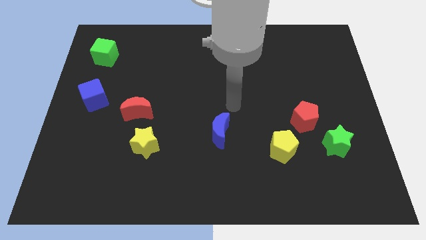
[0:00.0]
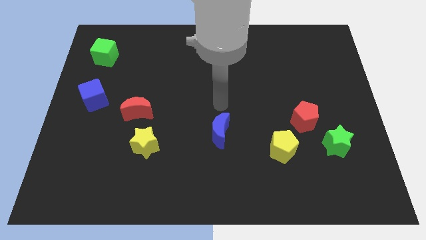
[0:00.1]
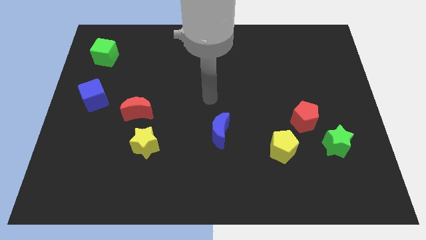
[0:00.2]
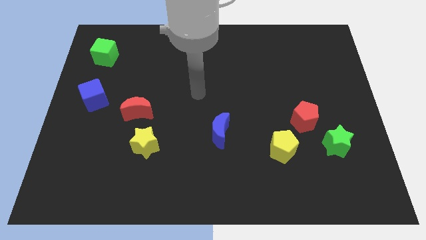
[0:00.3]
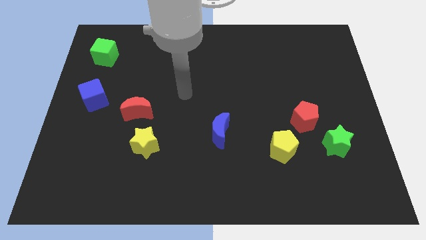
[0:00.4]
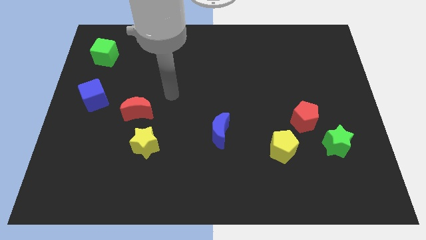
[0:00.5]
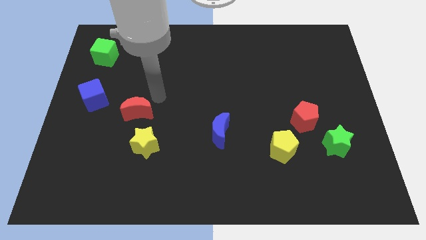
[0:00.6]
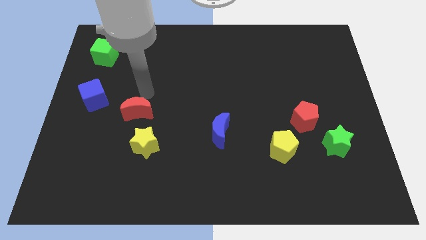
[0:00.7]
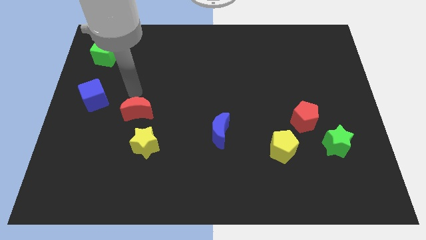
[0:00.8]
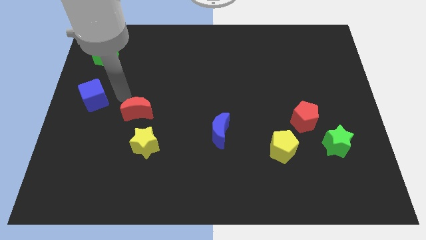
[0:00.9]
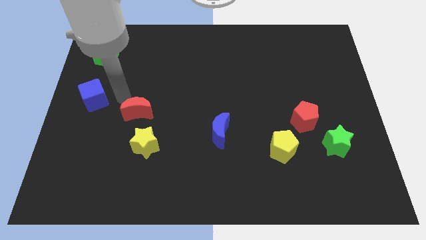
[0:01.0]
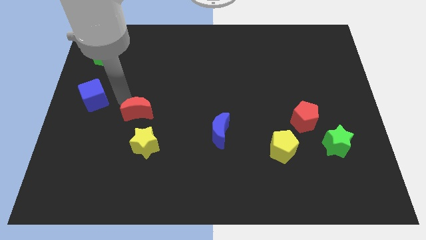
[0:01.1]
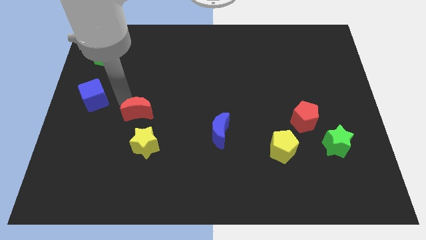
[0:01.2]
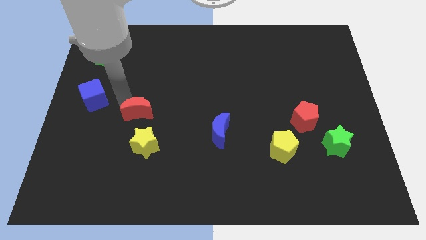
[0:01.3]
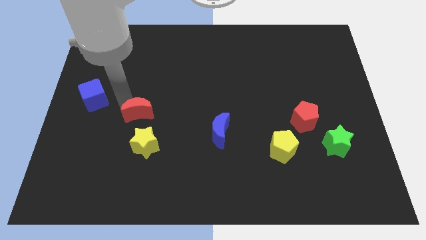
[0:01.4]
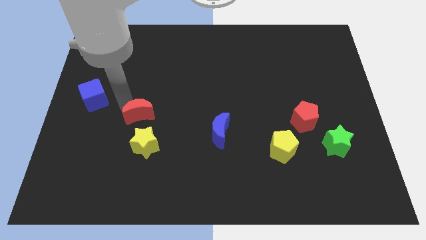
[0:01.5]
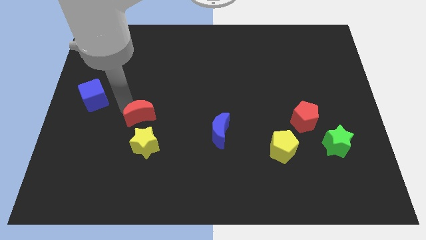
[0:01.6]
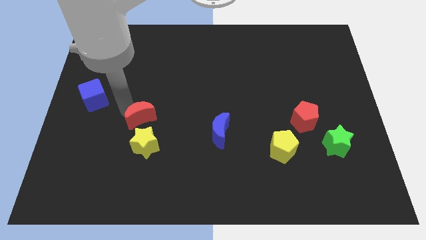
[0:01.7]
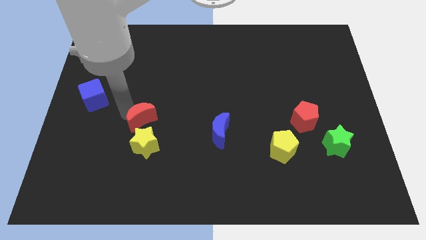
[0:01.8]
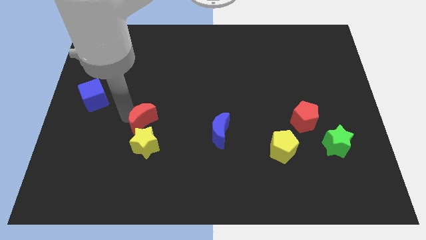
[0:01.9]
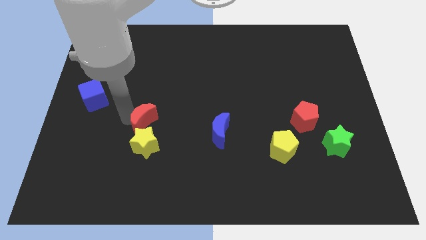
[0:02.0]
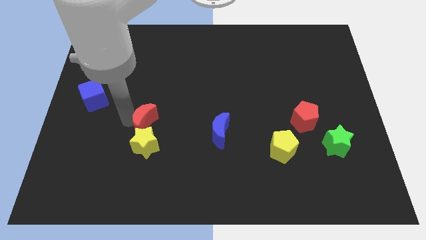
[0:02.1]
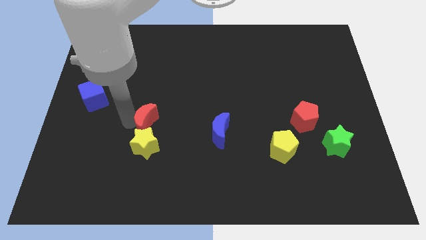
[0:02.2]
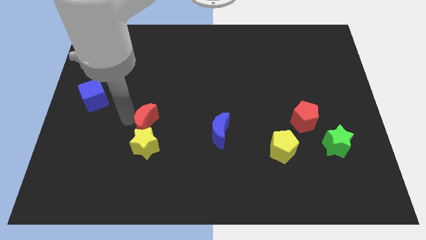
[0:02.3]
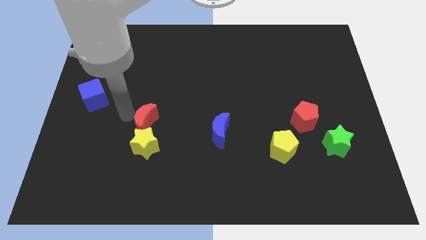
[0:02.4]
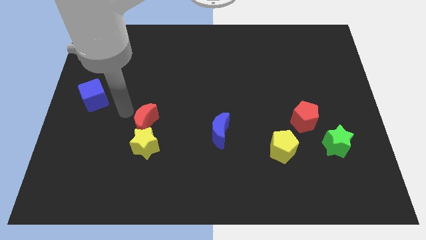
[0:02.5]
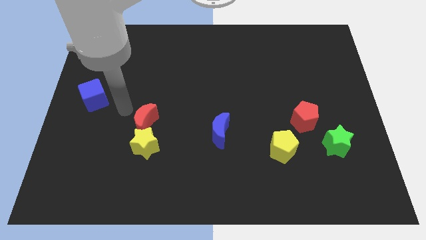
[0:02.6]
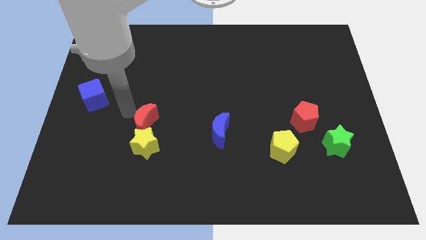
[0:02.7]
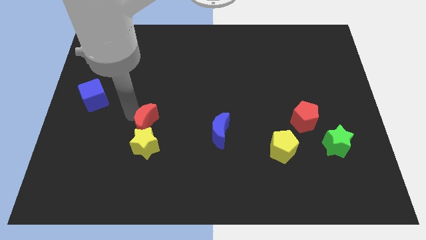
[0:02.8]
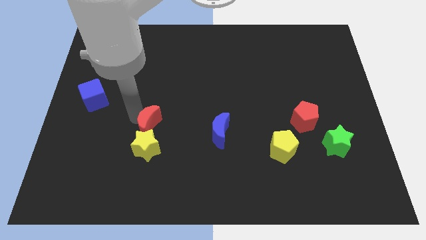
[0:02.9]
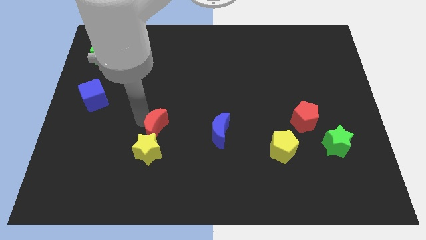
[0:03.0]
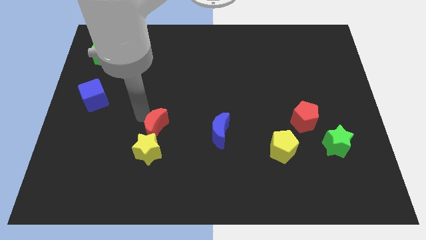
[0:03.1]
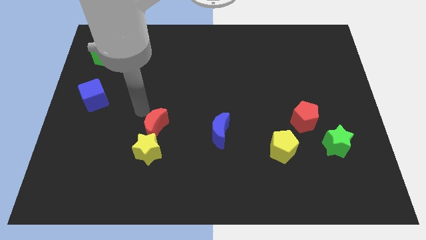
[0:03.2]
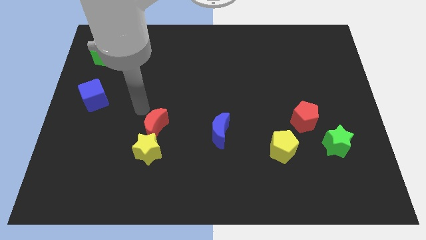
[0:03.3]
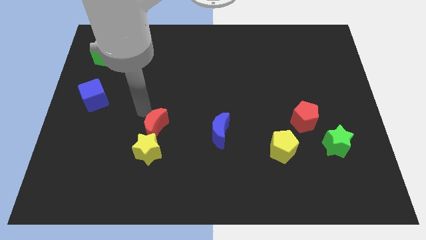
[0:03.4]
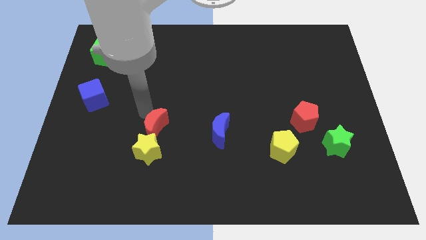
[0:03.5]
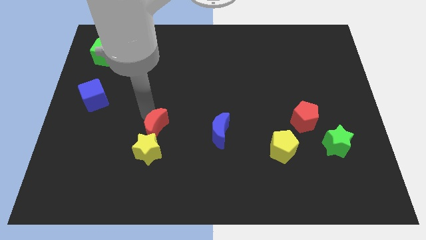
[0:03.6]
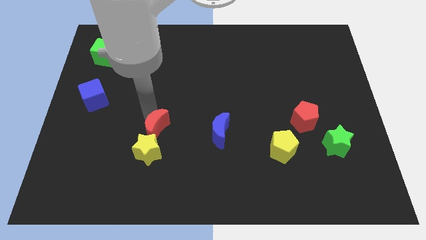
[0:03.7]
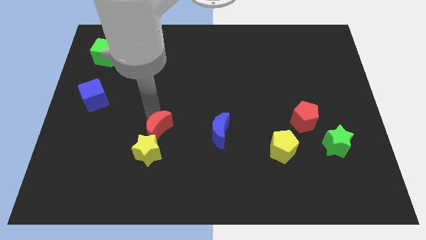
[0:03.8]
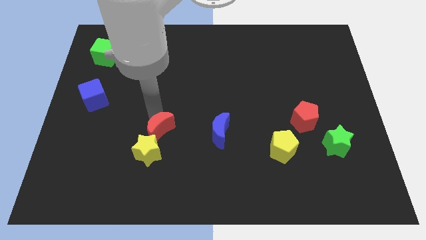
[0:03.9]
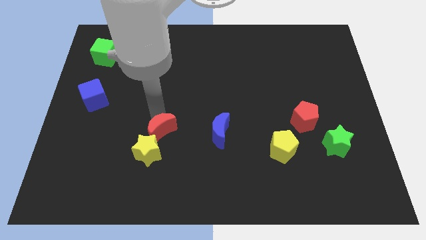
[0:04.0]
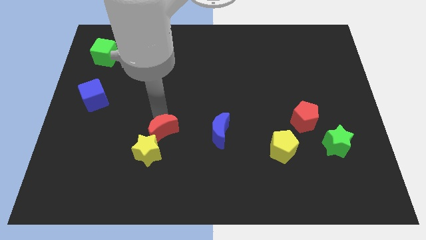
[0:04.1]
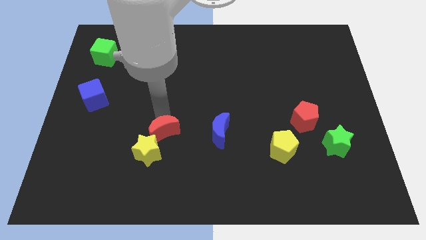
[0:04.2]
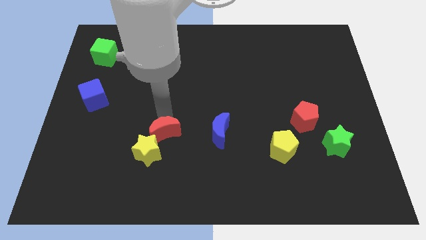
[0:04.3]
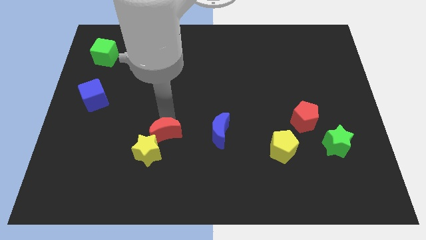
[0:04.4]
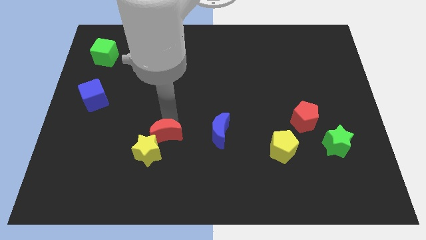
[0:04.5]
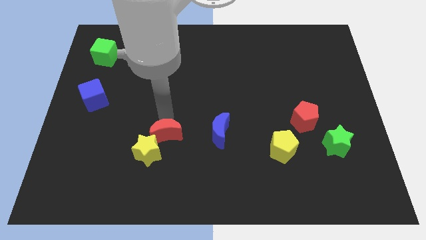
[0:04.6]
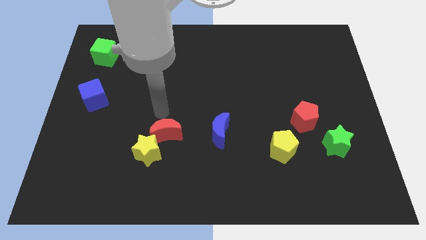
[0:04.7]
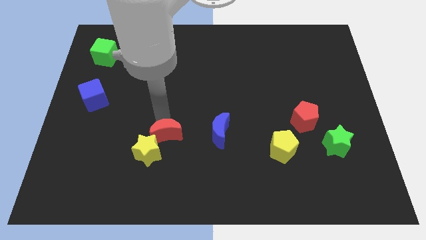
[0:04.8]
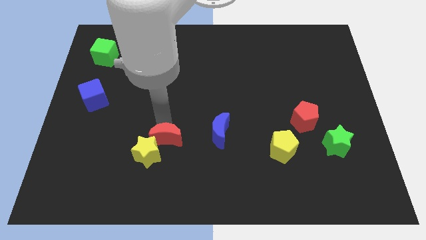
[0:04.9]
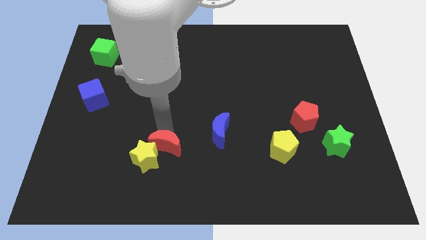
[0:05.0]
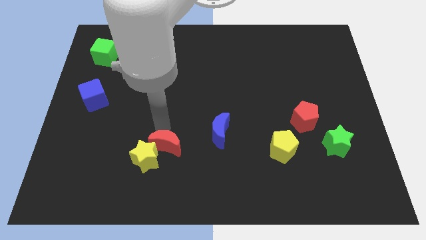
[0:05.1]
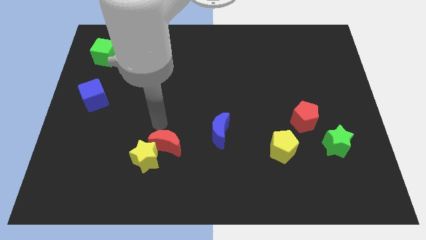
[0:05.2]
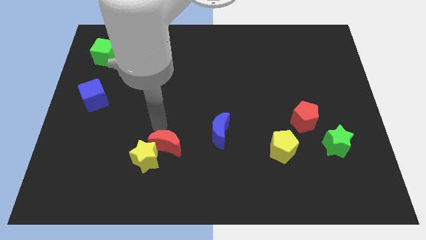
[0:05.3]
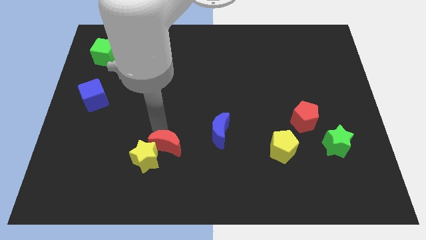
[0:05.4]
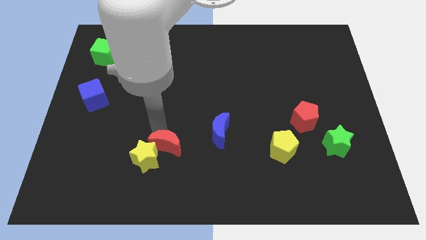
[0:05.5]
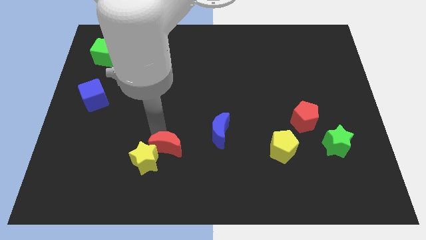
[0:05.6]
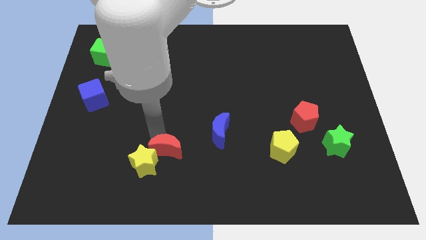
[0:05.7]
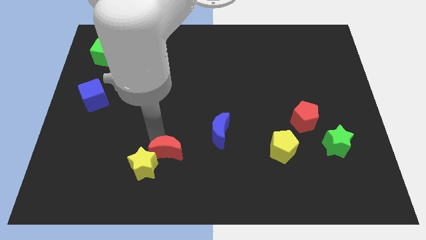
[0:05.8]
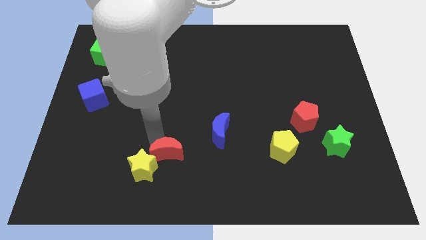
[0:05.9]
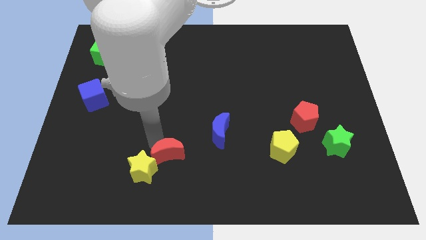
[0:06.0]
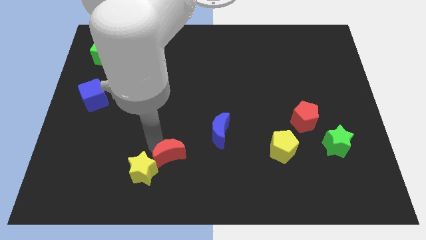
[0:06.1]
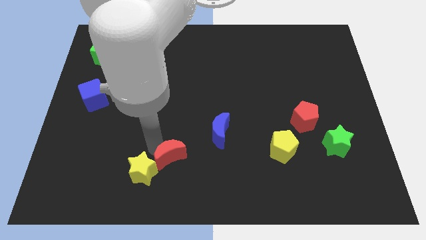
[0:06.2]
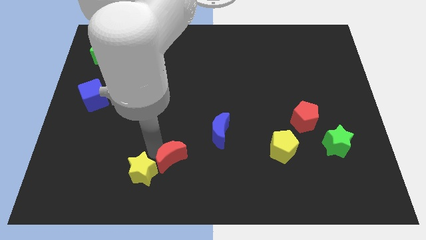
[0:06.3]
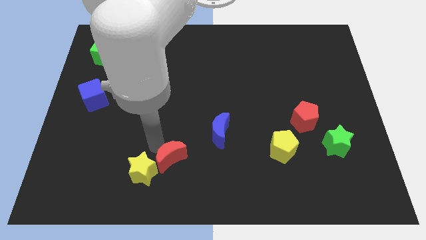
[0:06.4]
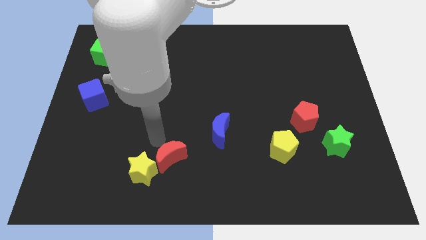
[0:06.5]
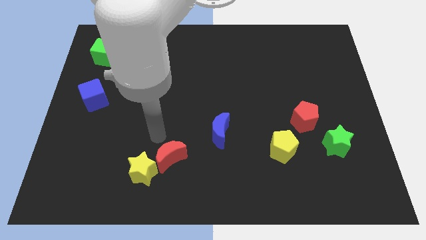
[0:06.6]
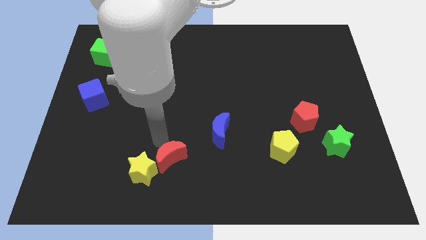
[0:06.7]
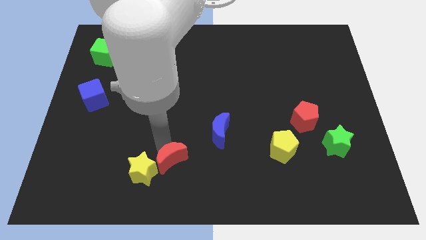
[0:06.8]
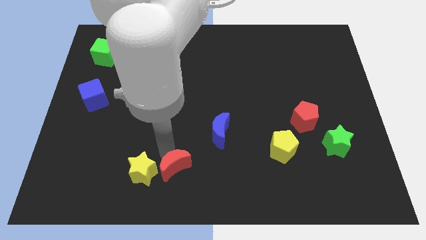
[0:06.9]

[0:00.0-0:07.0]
slide the red moon to the bottom
